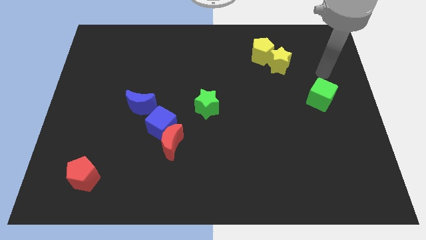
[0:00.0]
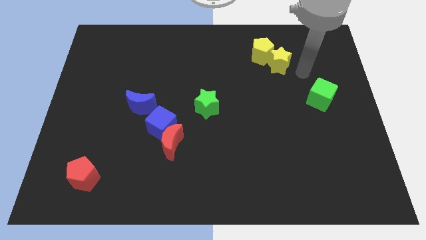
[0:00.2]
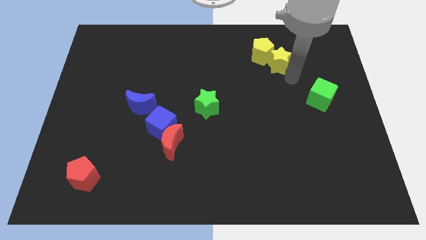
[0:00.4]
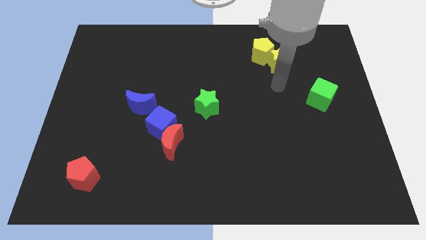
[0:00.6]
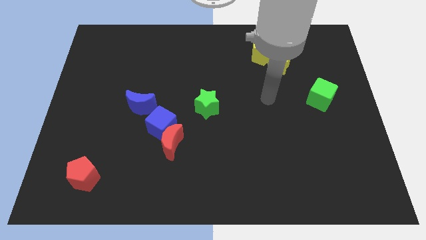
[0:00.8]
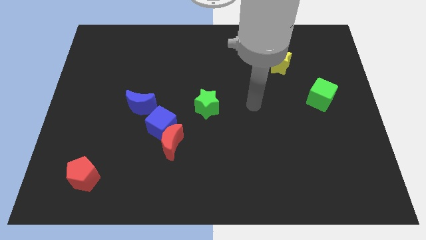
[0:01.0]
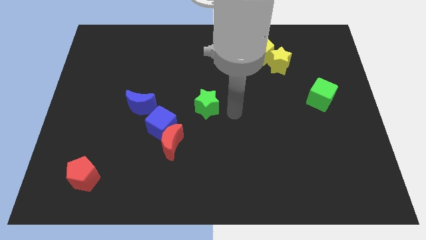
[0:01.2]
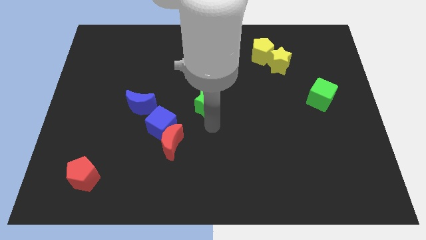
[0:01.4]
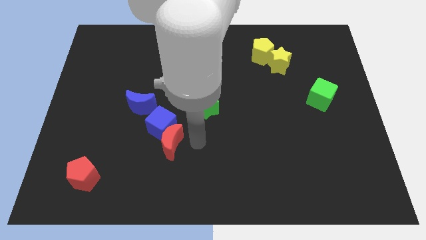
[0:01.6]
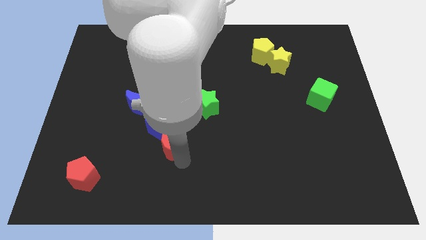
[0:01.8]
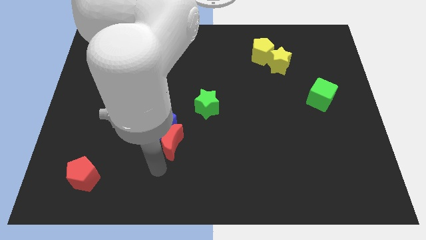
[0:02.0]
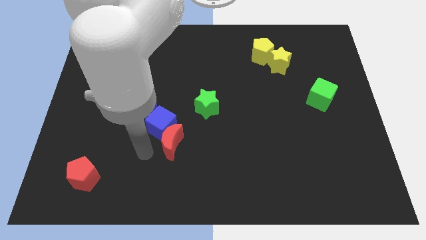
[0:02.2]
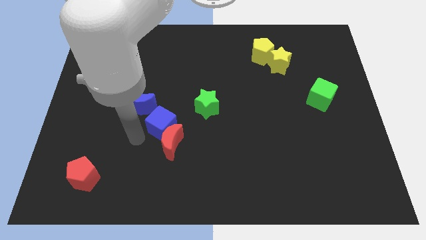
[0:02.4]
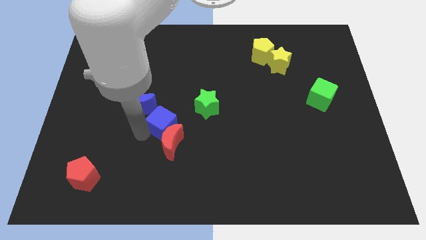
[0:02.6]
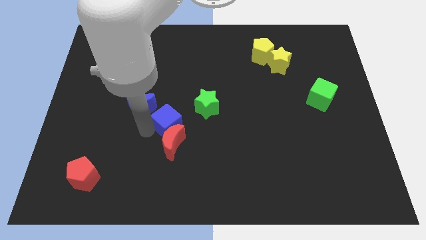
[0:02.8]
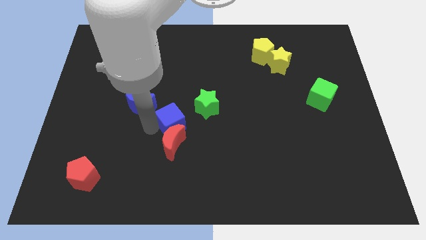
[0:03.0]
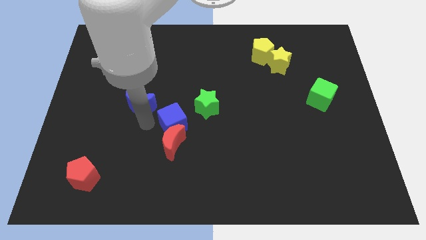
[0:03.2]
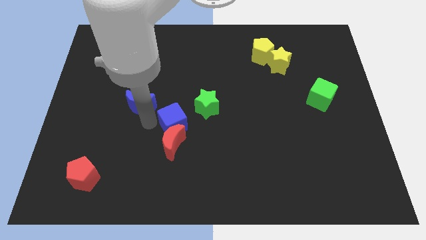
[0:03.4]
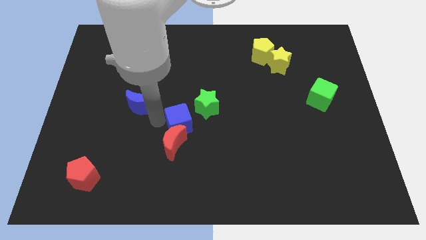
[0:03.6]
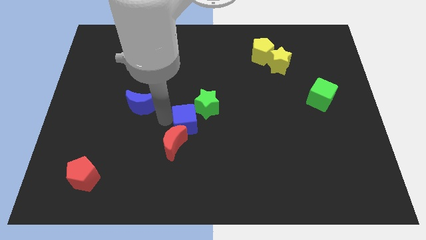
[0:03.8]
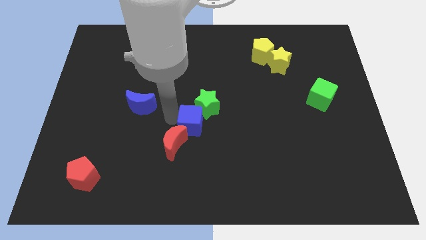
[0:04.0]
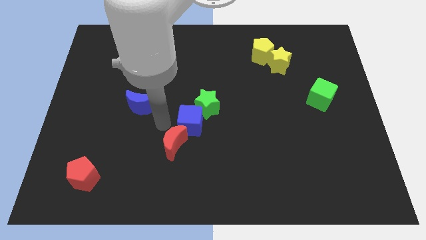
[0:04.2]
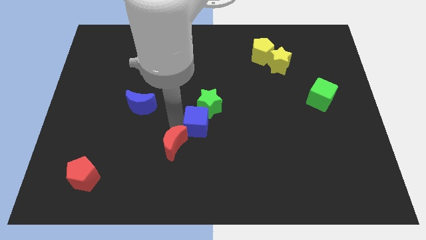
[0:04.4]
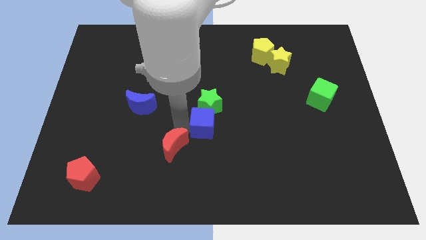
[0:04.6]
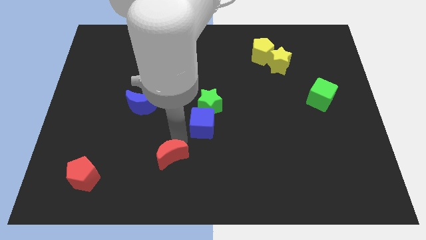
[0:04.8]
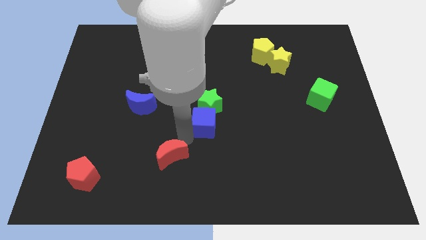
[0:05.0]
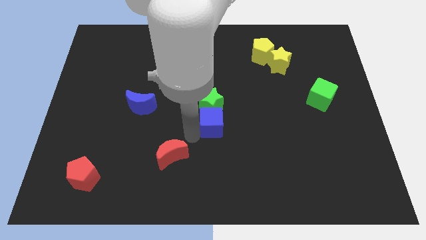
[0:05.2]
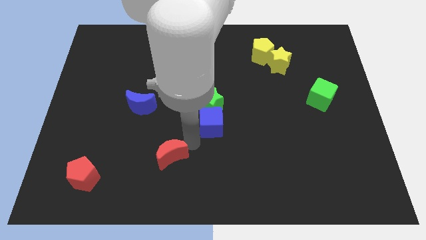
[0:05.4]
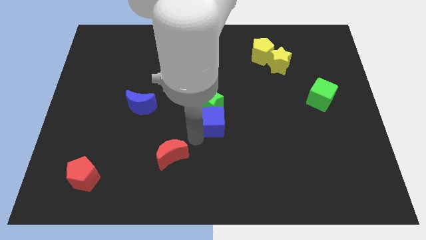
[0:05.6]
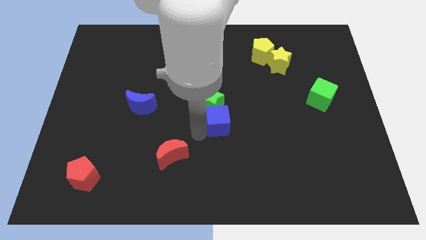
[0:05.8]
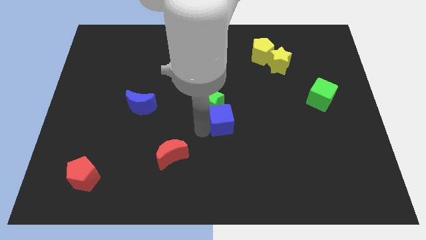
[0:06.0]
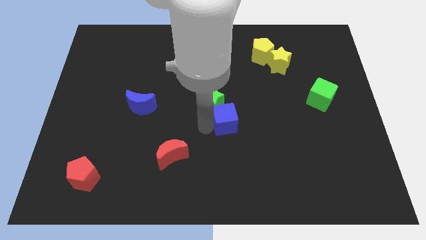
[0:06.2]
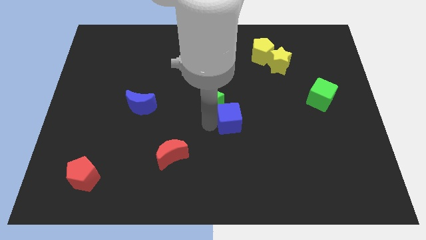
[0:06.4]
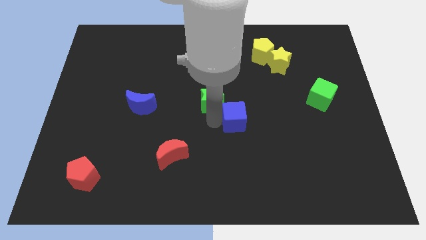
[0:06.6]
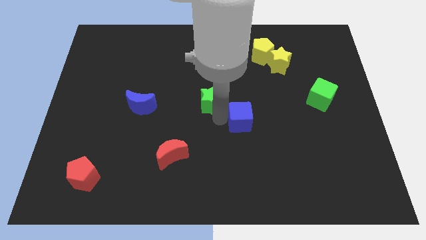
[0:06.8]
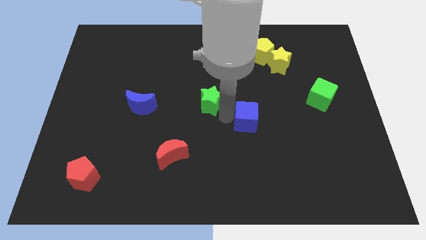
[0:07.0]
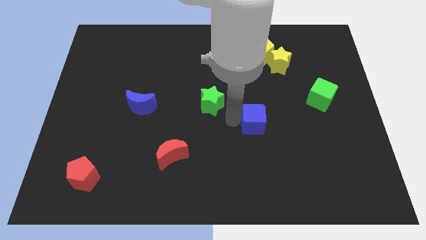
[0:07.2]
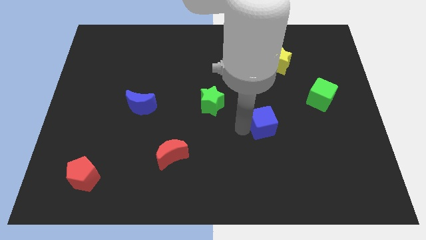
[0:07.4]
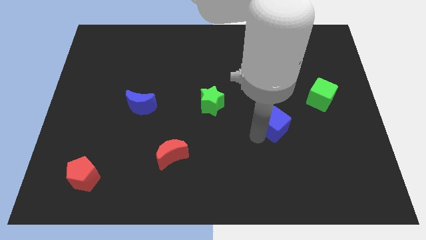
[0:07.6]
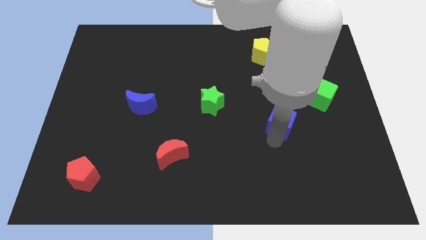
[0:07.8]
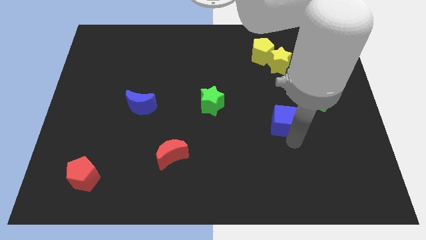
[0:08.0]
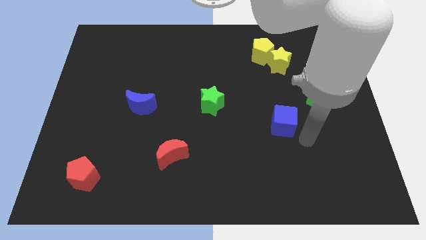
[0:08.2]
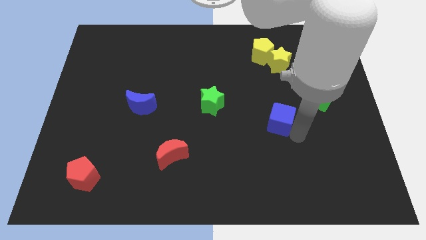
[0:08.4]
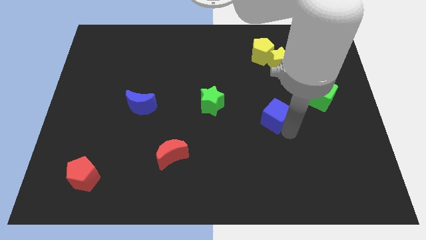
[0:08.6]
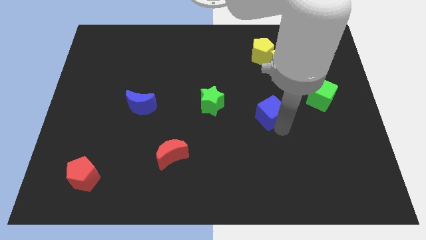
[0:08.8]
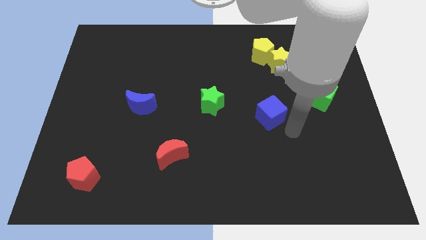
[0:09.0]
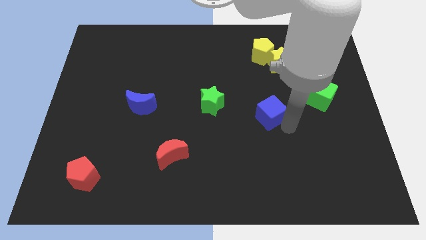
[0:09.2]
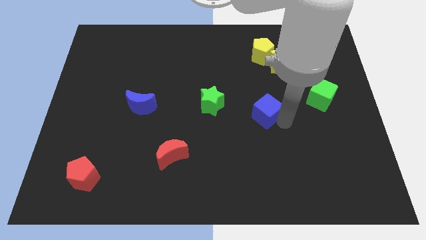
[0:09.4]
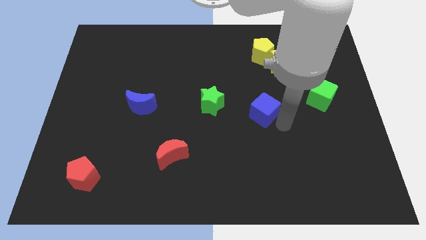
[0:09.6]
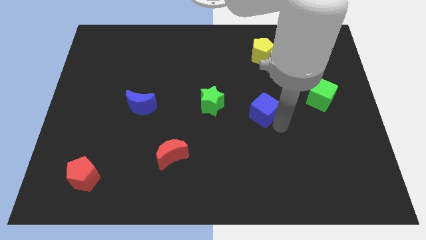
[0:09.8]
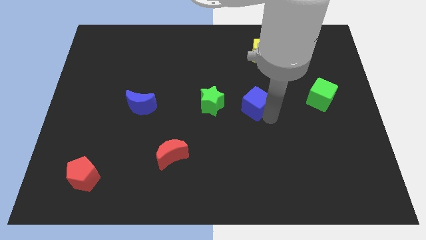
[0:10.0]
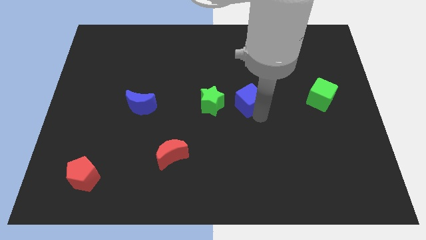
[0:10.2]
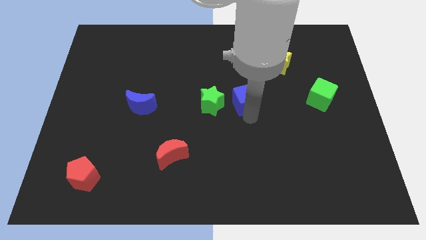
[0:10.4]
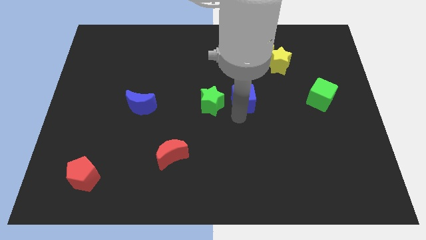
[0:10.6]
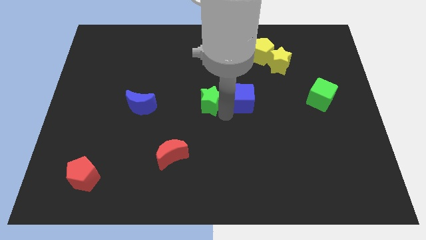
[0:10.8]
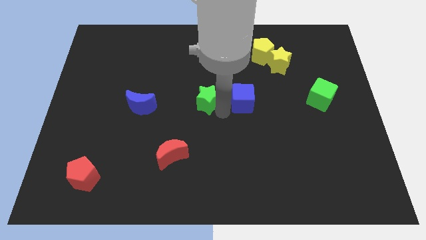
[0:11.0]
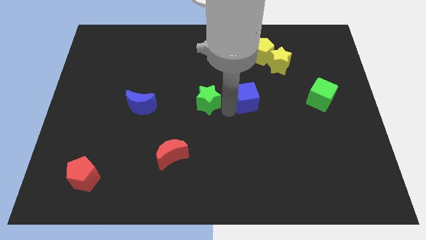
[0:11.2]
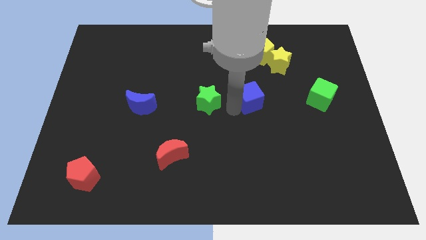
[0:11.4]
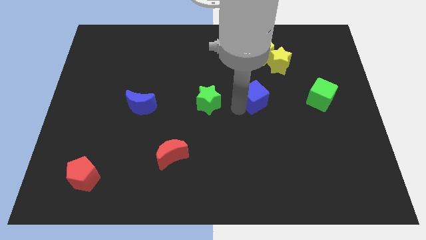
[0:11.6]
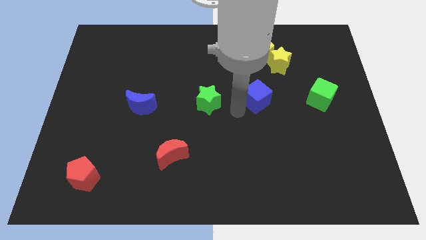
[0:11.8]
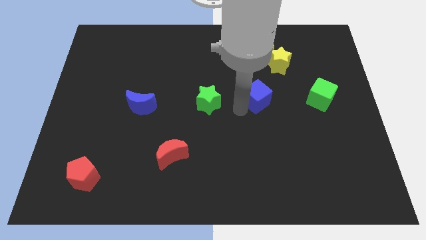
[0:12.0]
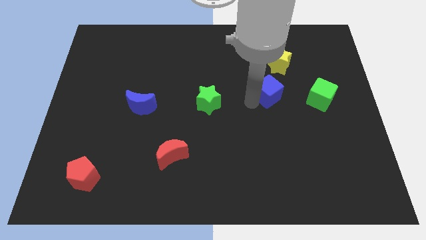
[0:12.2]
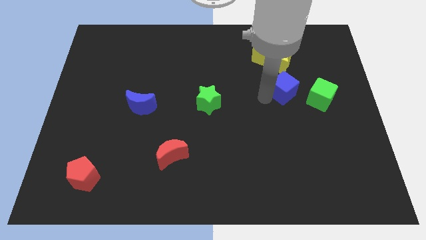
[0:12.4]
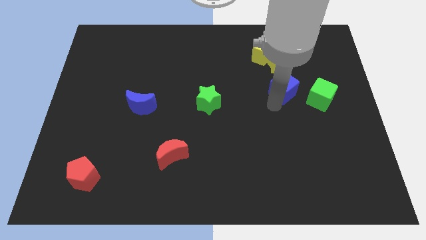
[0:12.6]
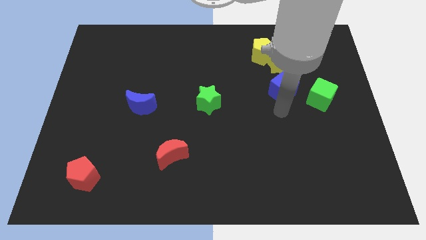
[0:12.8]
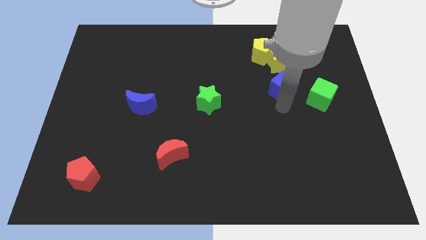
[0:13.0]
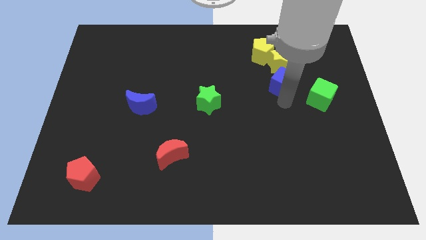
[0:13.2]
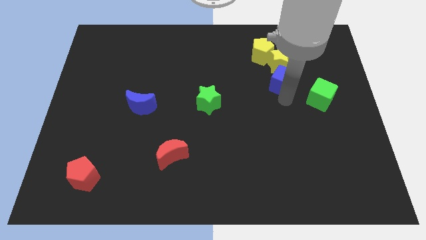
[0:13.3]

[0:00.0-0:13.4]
slide the blue cube to the bottom right of the yellow pentagon
